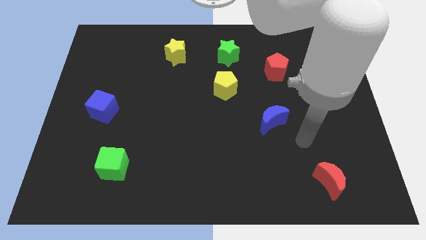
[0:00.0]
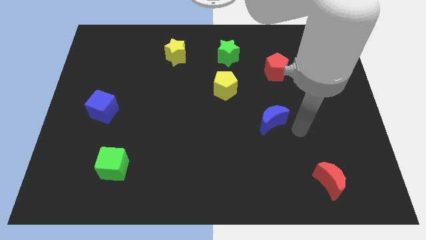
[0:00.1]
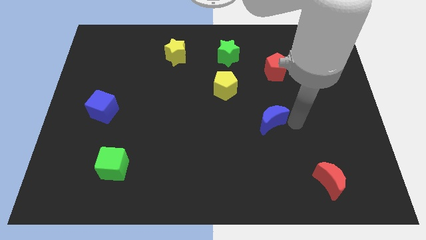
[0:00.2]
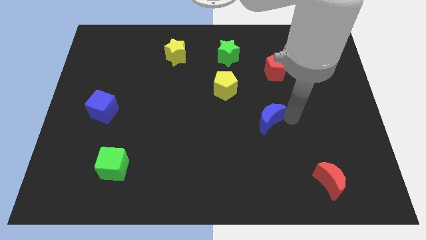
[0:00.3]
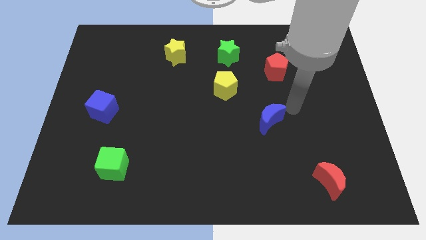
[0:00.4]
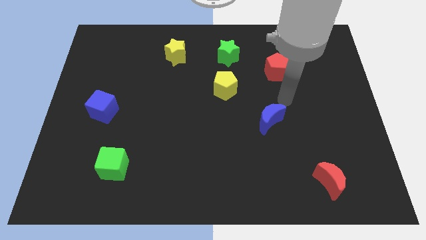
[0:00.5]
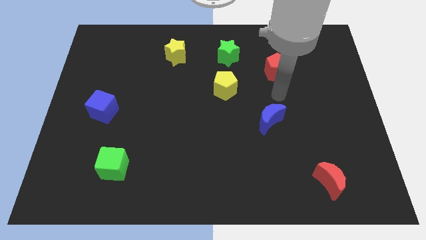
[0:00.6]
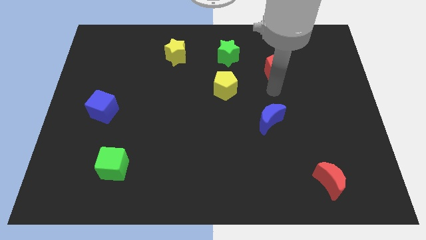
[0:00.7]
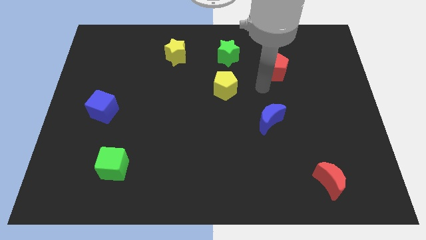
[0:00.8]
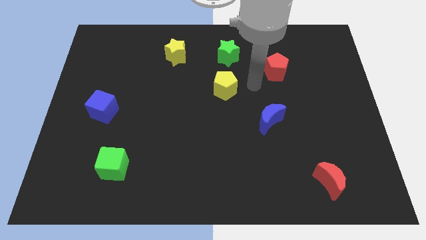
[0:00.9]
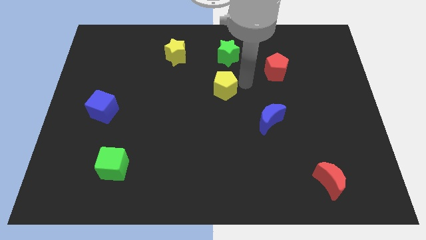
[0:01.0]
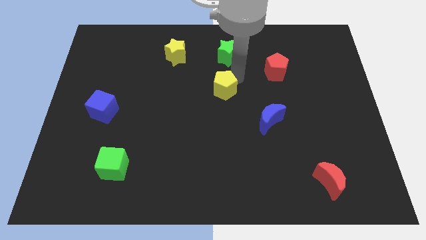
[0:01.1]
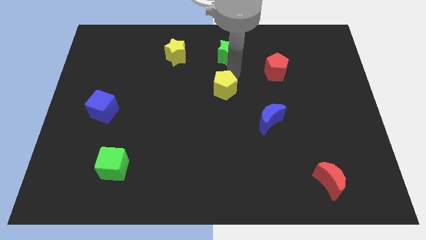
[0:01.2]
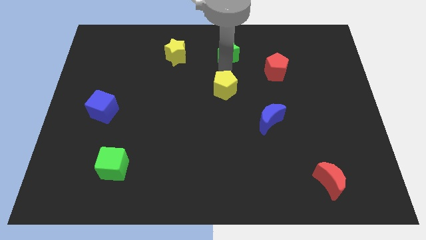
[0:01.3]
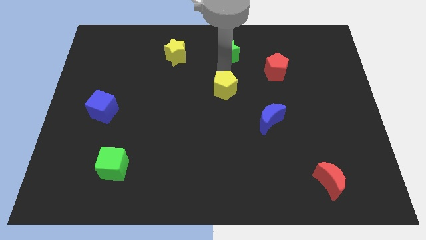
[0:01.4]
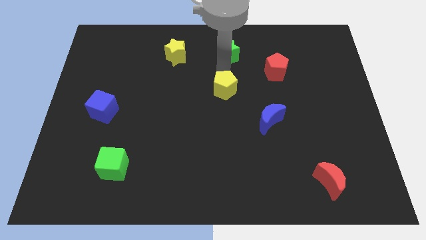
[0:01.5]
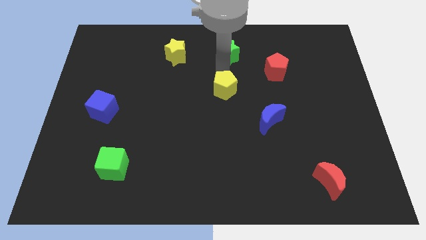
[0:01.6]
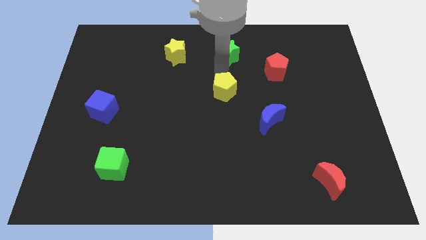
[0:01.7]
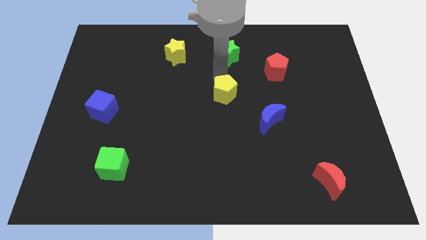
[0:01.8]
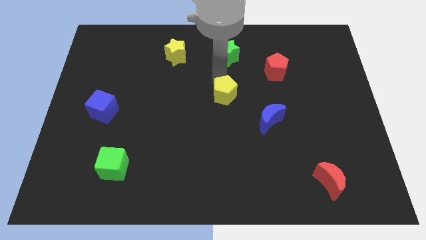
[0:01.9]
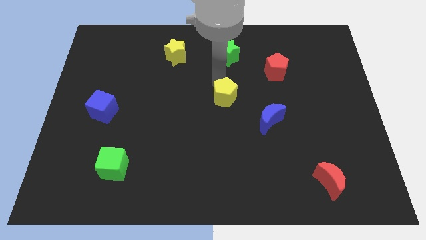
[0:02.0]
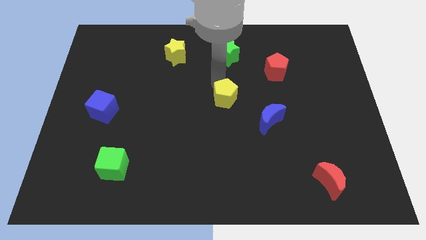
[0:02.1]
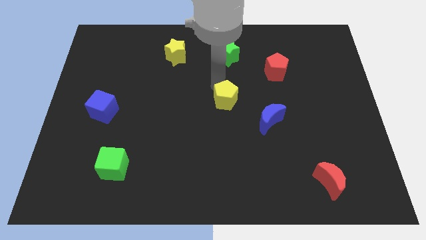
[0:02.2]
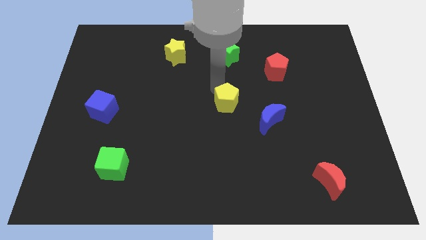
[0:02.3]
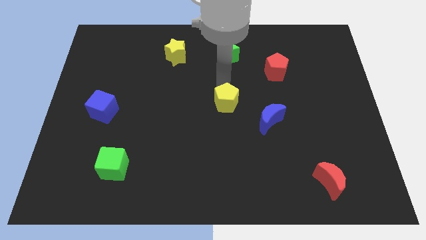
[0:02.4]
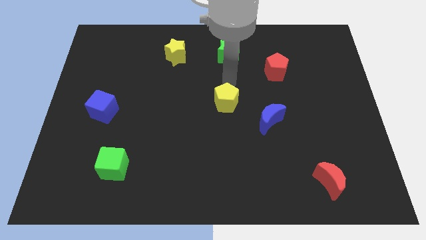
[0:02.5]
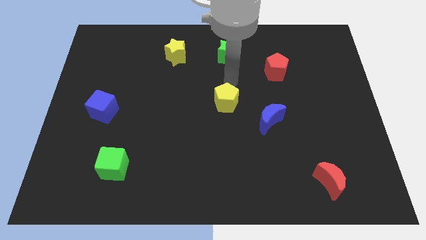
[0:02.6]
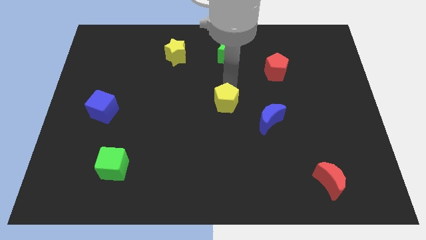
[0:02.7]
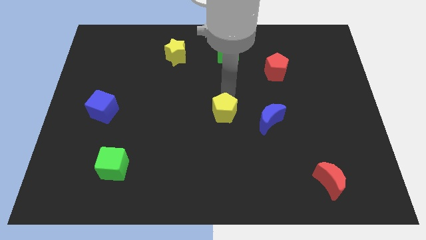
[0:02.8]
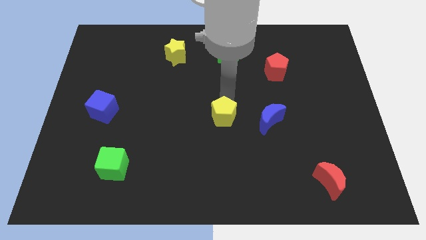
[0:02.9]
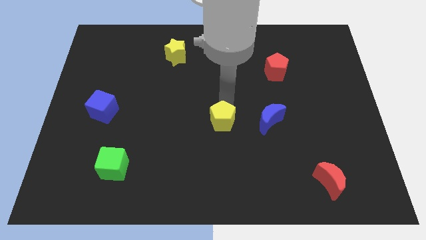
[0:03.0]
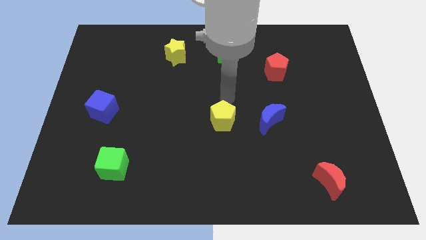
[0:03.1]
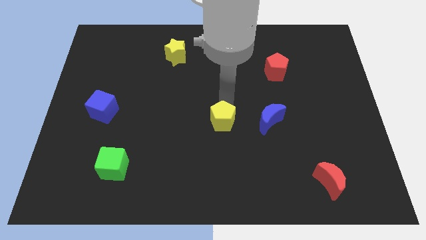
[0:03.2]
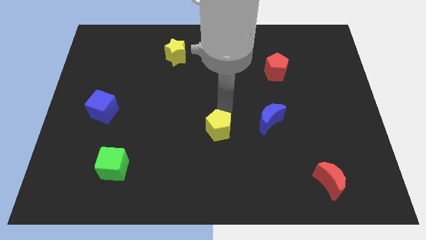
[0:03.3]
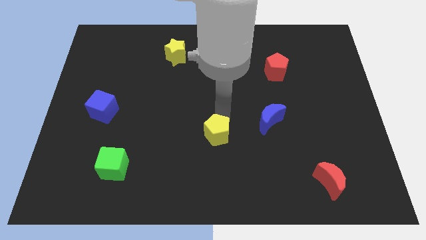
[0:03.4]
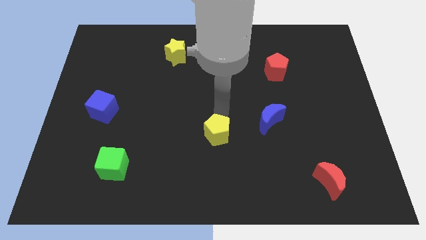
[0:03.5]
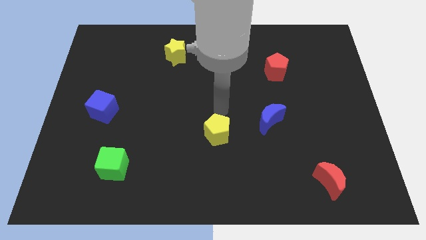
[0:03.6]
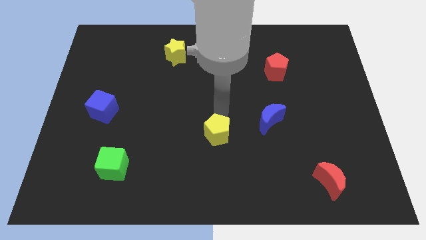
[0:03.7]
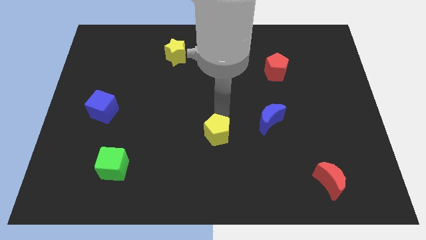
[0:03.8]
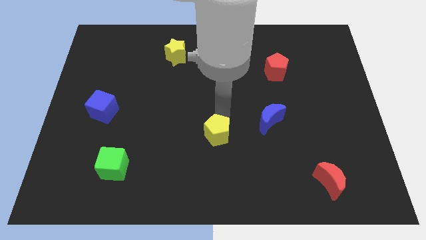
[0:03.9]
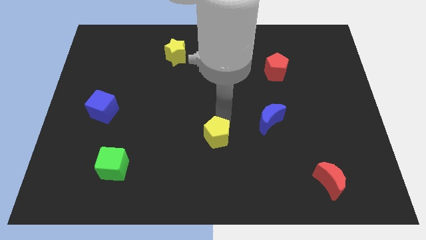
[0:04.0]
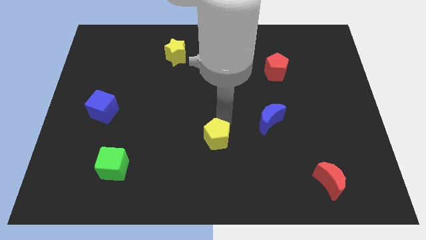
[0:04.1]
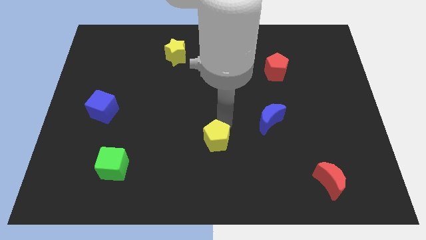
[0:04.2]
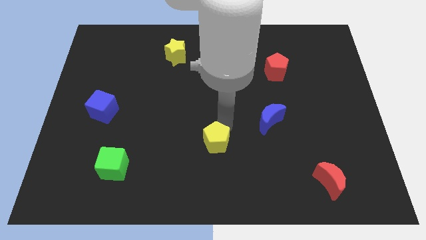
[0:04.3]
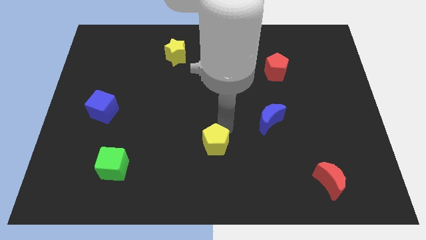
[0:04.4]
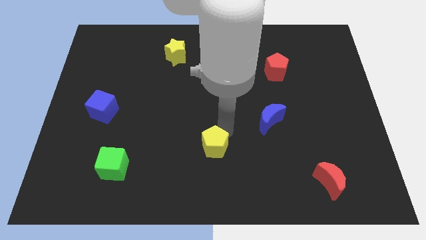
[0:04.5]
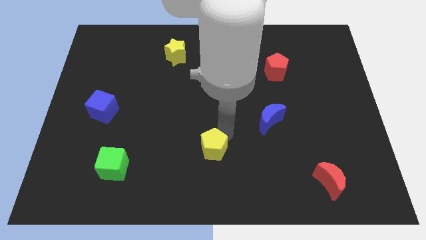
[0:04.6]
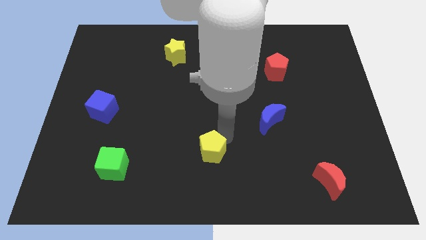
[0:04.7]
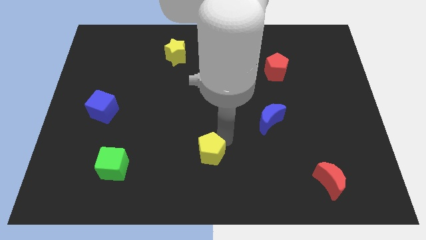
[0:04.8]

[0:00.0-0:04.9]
push the yellow pentagon to the bottom

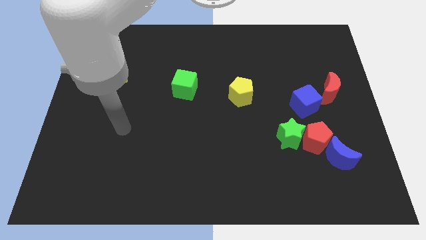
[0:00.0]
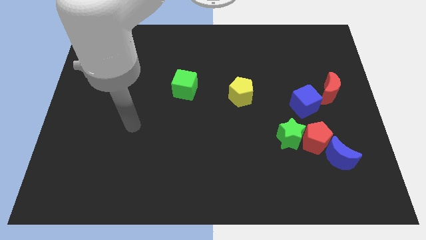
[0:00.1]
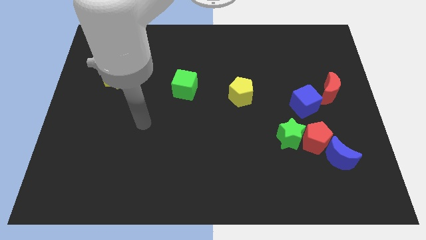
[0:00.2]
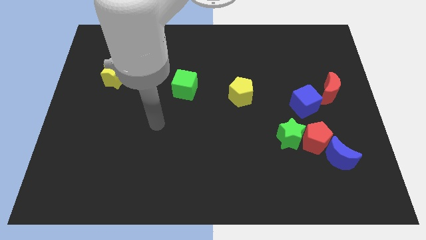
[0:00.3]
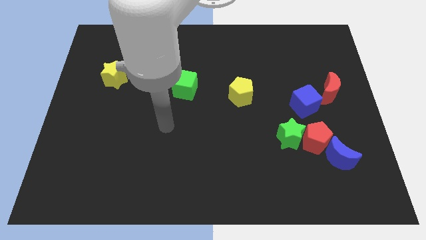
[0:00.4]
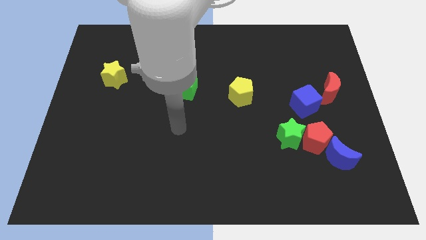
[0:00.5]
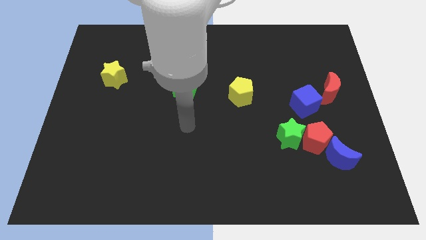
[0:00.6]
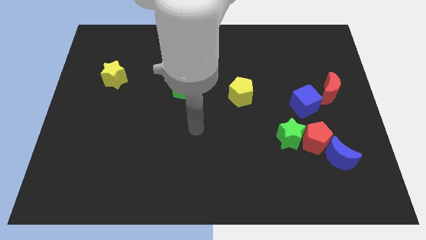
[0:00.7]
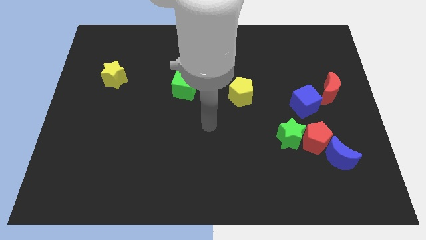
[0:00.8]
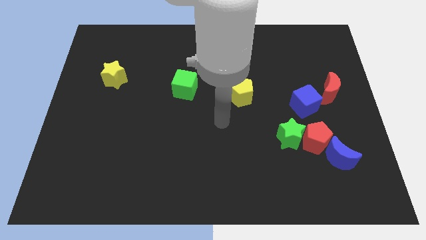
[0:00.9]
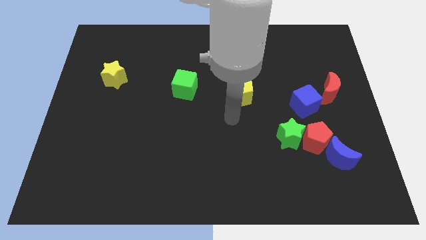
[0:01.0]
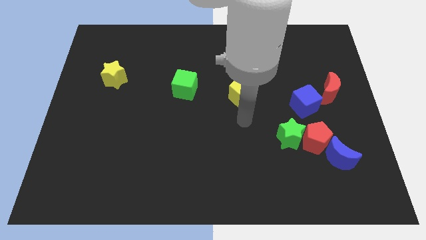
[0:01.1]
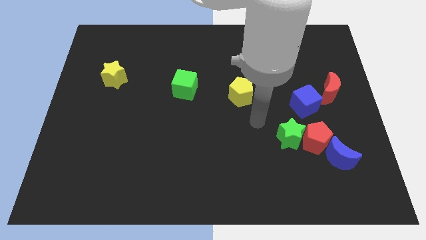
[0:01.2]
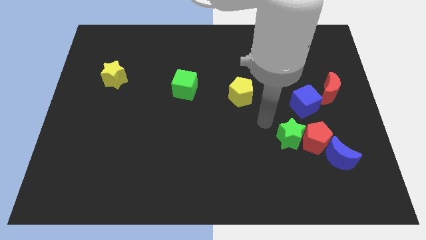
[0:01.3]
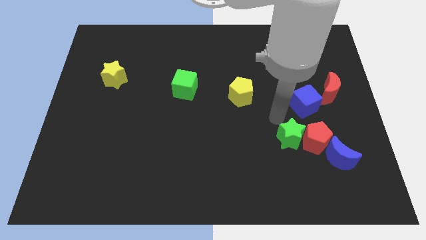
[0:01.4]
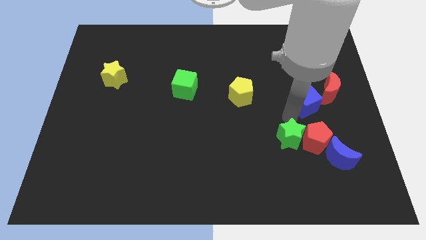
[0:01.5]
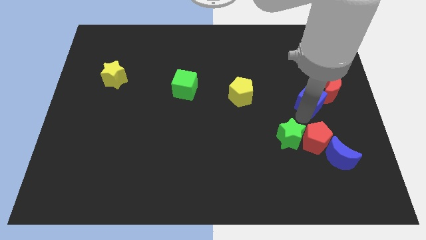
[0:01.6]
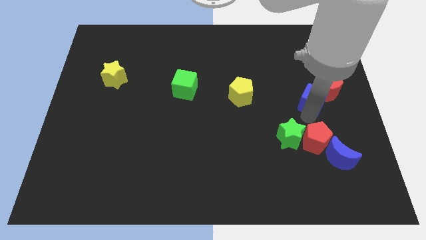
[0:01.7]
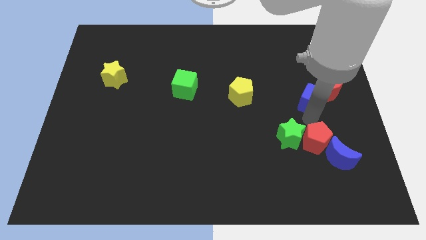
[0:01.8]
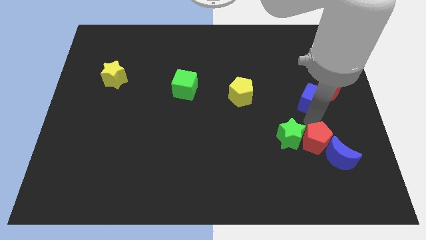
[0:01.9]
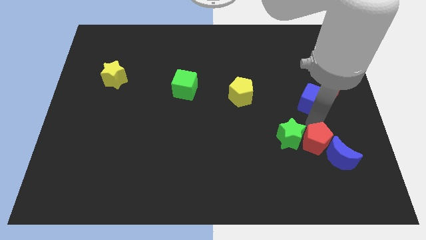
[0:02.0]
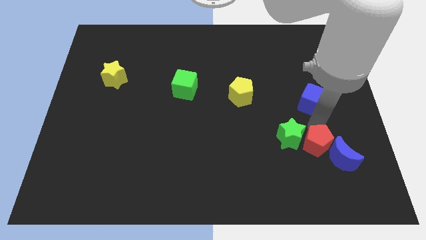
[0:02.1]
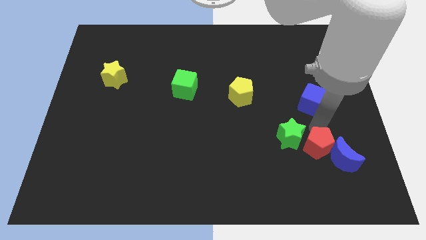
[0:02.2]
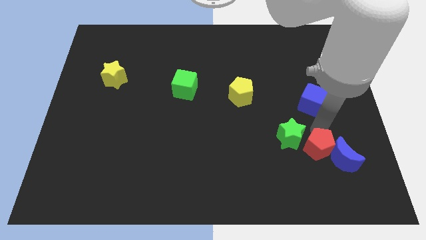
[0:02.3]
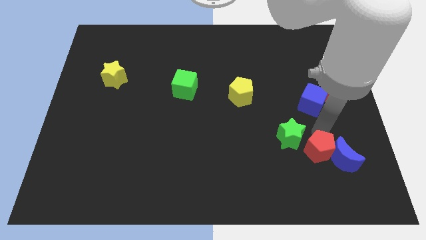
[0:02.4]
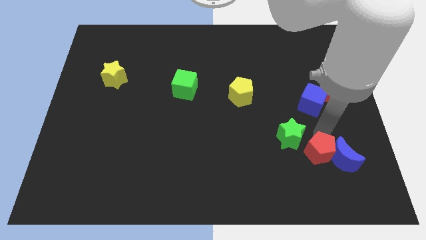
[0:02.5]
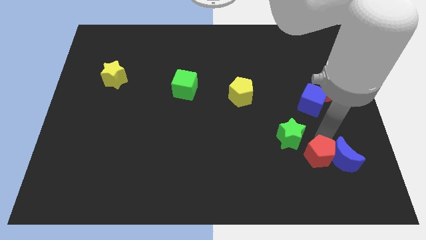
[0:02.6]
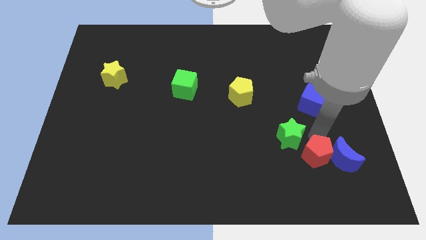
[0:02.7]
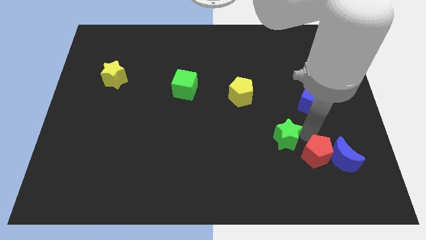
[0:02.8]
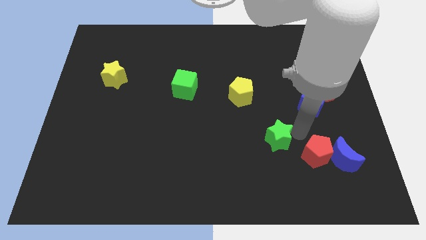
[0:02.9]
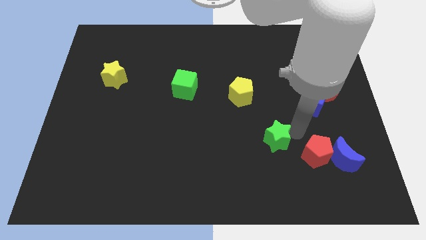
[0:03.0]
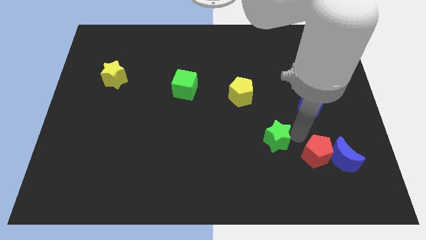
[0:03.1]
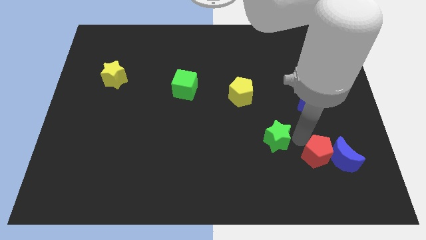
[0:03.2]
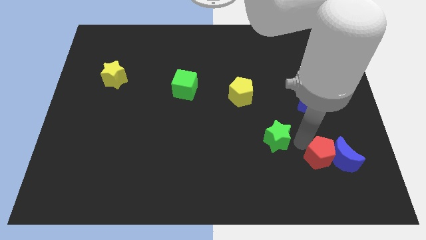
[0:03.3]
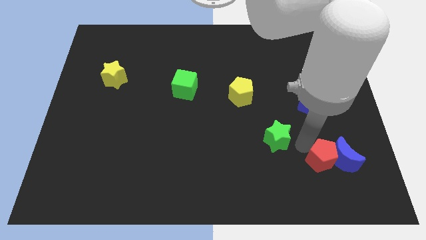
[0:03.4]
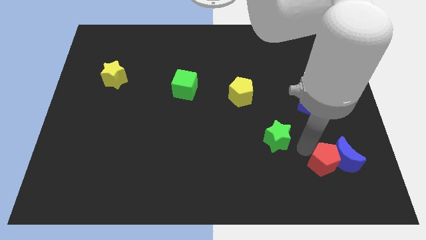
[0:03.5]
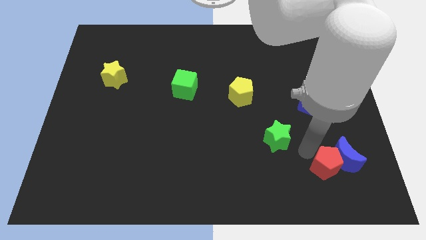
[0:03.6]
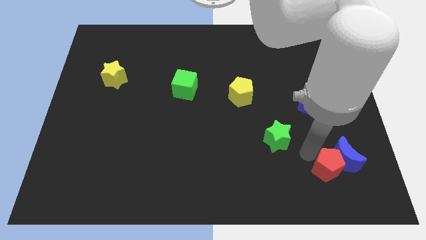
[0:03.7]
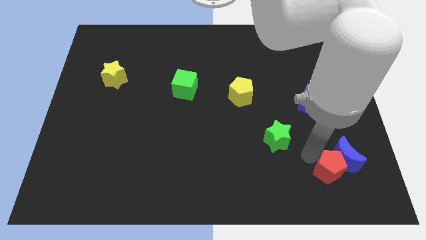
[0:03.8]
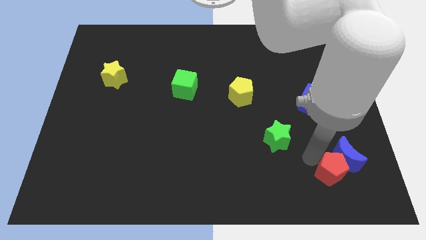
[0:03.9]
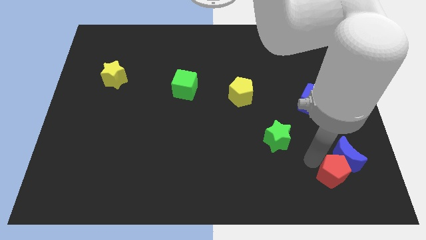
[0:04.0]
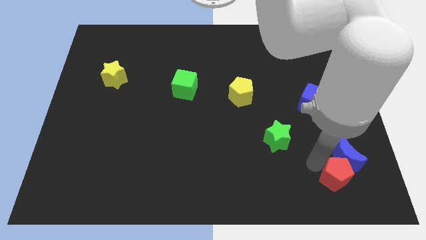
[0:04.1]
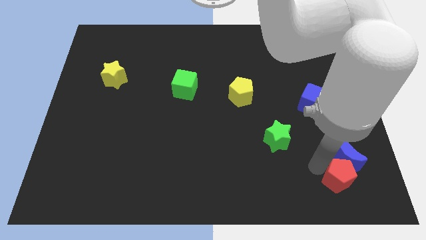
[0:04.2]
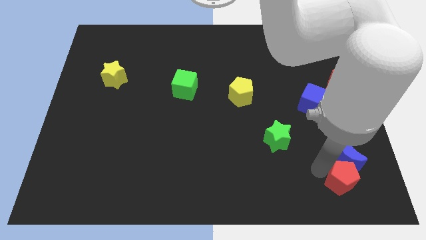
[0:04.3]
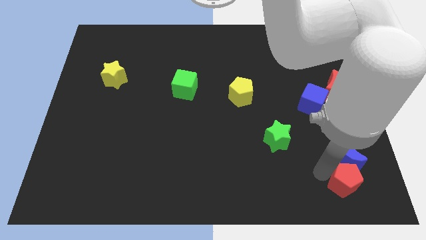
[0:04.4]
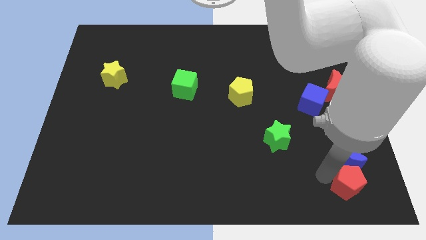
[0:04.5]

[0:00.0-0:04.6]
move the red pentagon to the lower right corner
